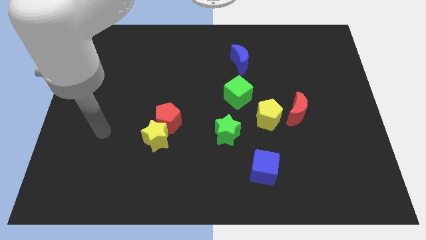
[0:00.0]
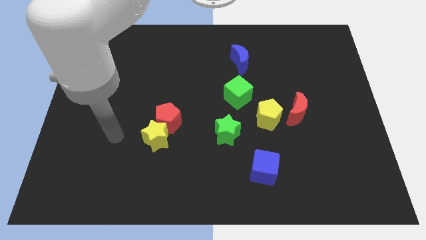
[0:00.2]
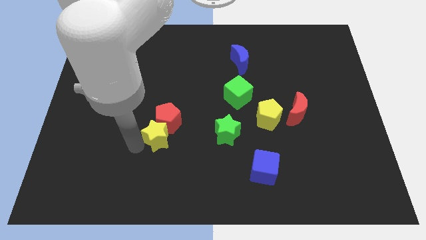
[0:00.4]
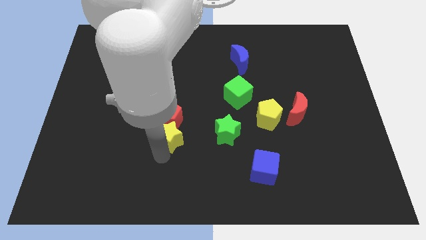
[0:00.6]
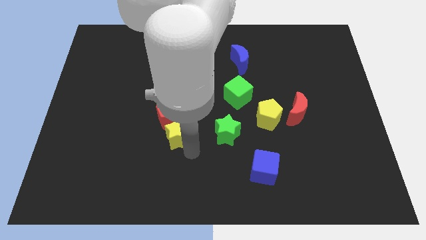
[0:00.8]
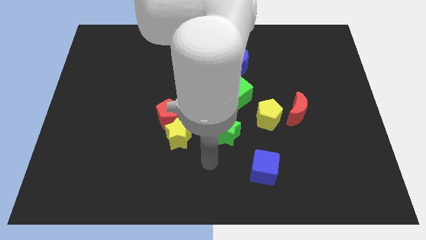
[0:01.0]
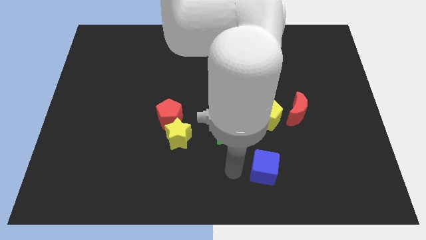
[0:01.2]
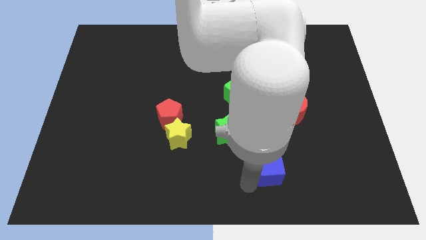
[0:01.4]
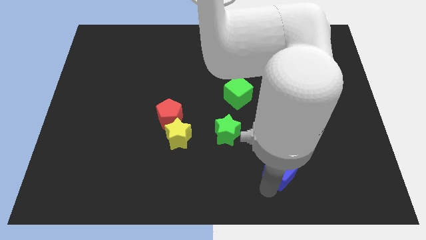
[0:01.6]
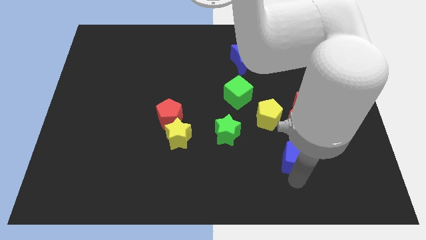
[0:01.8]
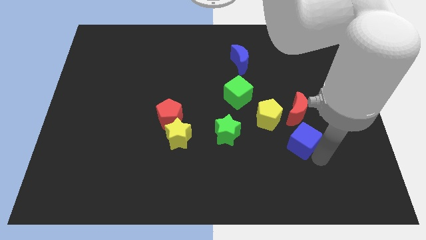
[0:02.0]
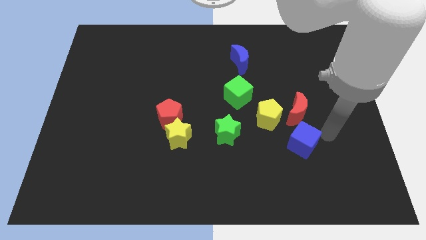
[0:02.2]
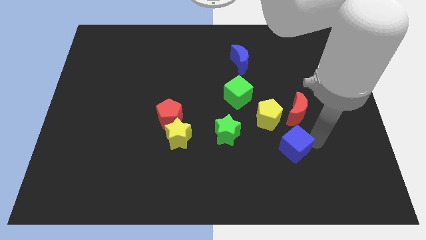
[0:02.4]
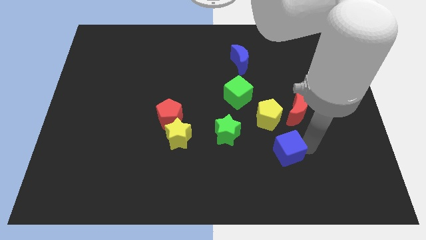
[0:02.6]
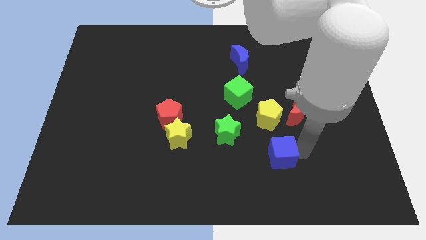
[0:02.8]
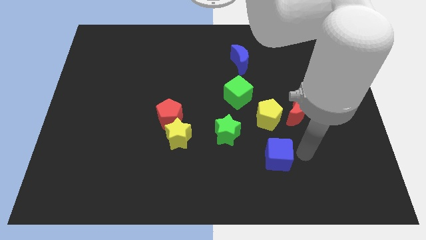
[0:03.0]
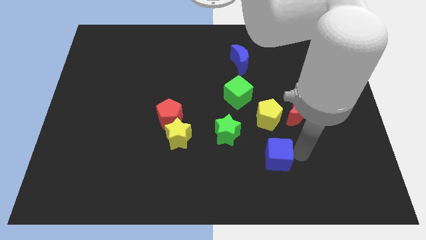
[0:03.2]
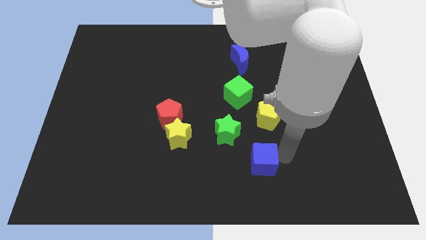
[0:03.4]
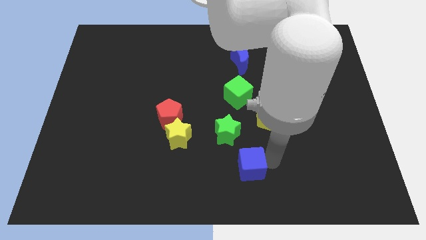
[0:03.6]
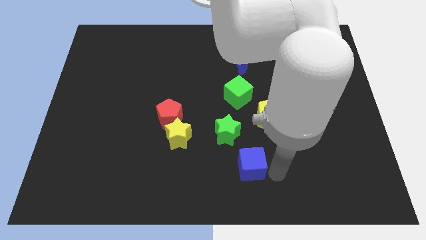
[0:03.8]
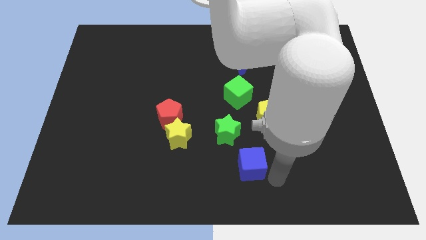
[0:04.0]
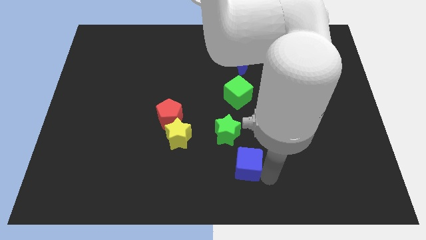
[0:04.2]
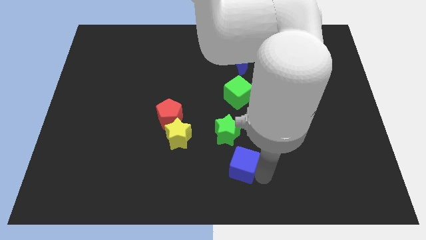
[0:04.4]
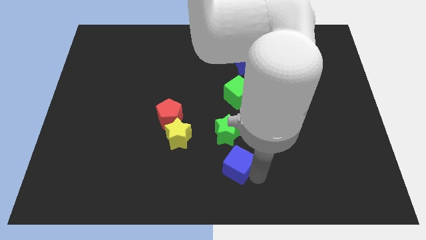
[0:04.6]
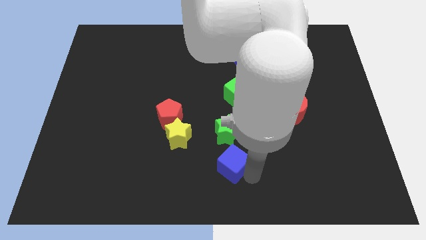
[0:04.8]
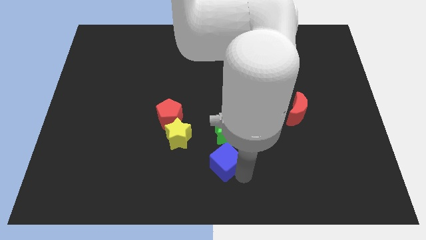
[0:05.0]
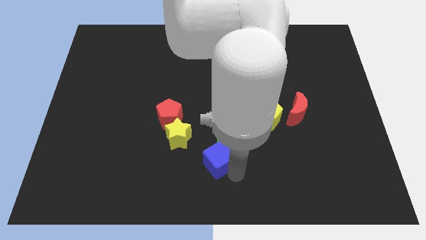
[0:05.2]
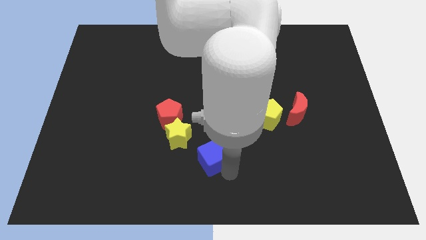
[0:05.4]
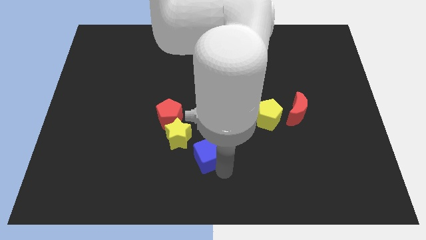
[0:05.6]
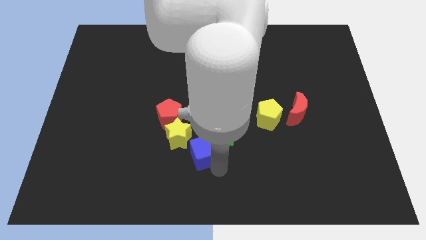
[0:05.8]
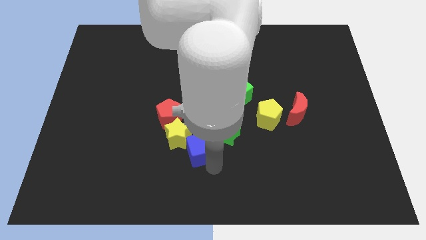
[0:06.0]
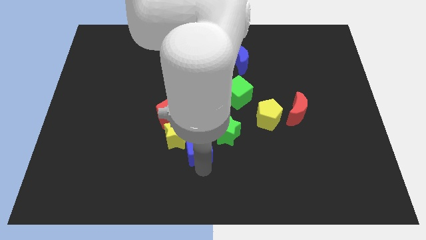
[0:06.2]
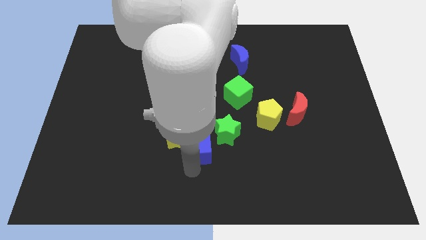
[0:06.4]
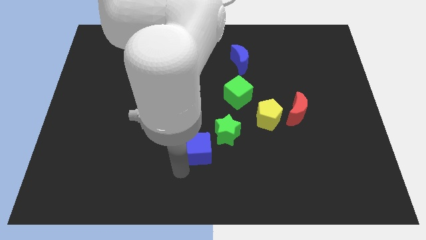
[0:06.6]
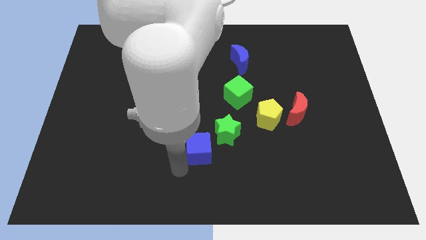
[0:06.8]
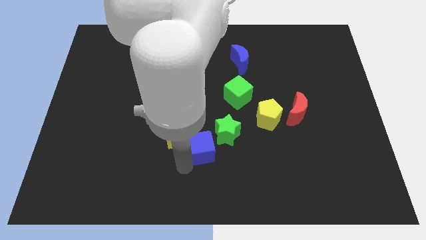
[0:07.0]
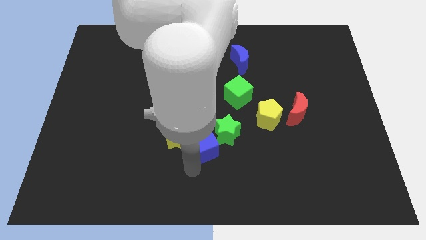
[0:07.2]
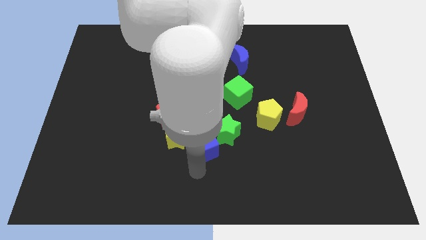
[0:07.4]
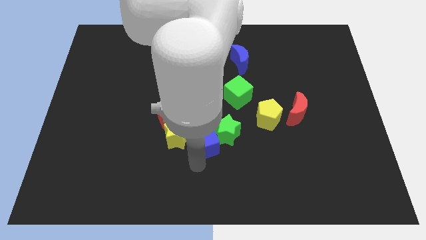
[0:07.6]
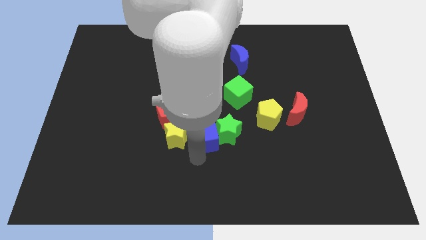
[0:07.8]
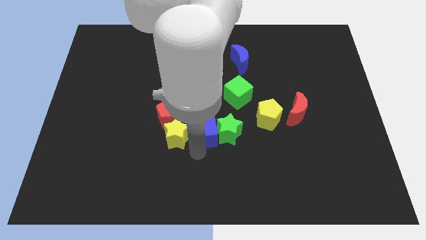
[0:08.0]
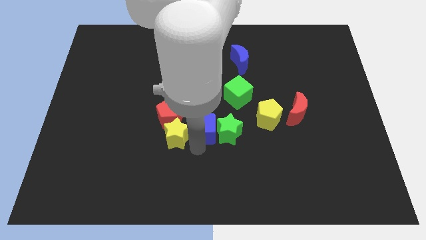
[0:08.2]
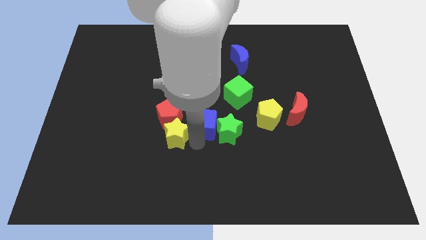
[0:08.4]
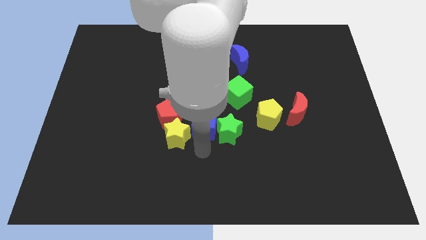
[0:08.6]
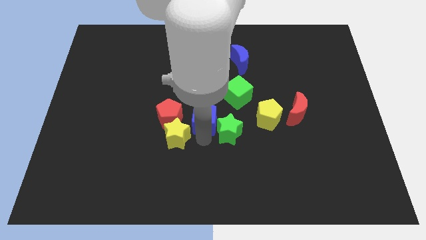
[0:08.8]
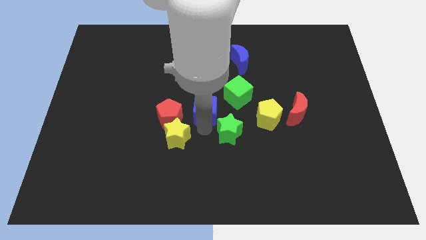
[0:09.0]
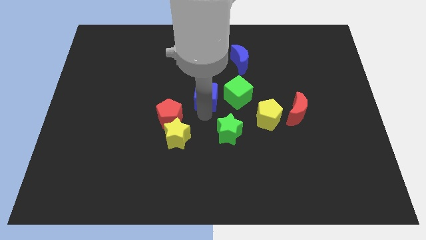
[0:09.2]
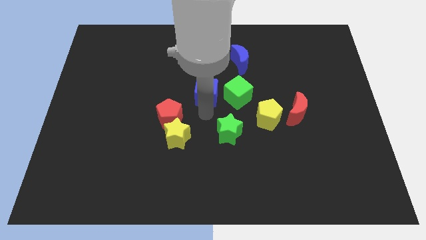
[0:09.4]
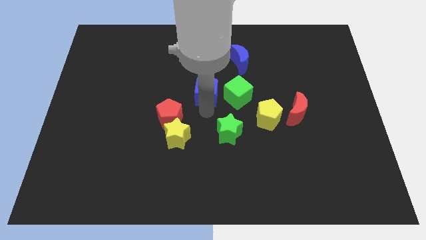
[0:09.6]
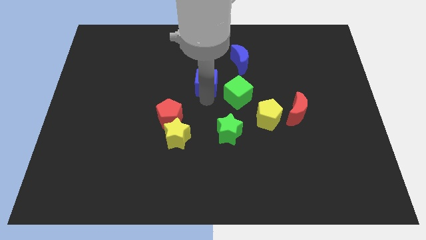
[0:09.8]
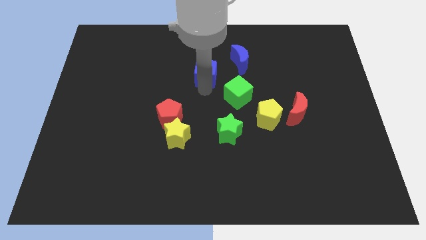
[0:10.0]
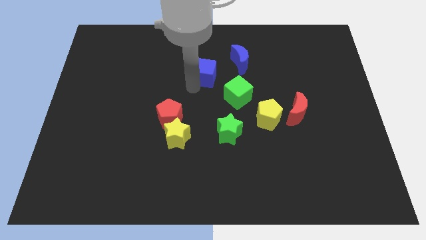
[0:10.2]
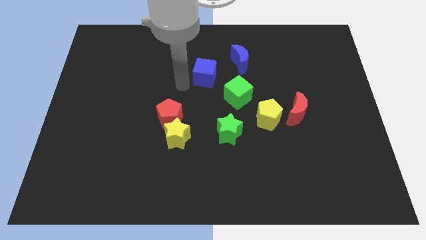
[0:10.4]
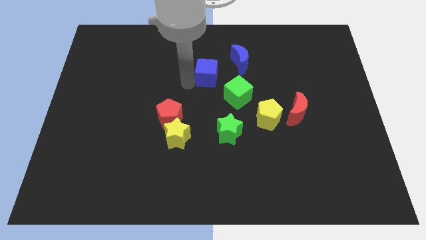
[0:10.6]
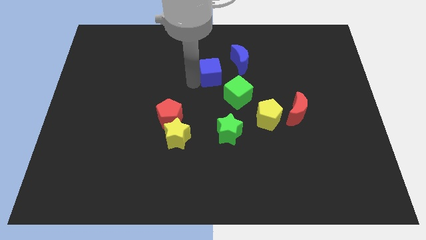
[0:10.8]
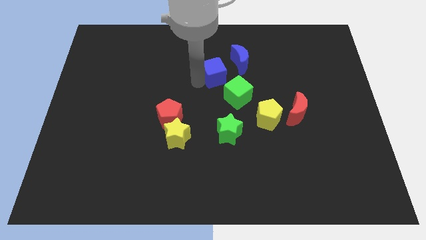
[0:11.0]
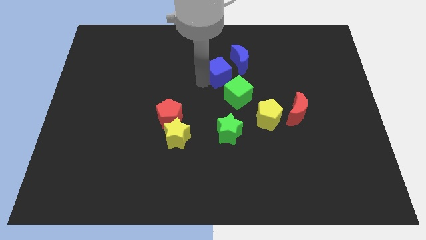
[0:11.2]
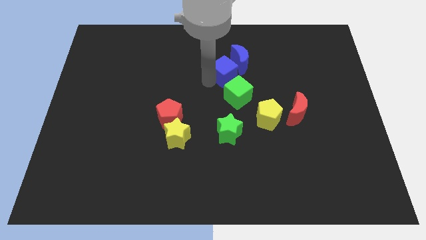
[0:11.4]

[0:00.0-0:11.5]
slide the blue cube close to the blue moon

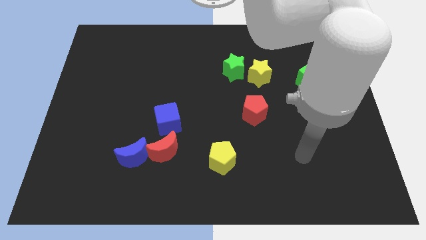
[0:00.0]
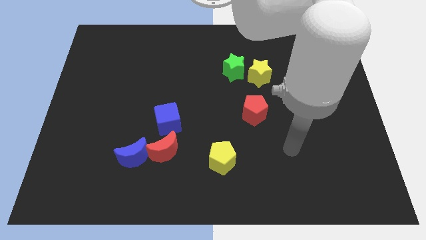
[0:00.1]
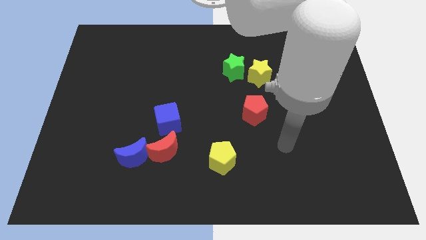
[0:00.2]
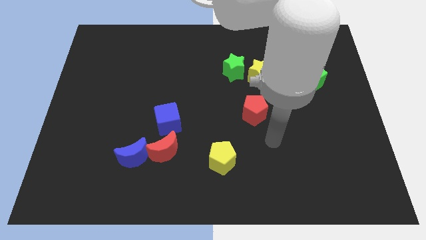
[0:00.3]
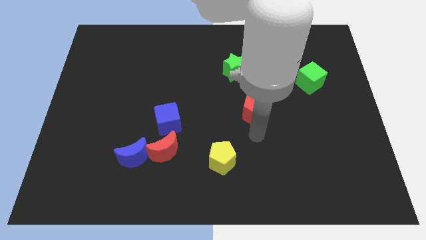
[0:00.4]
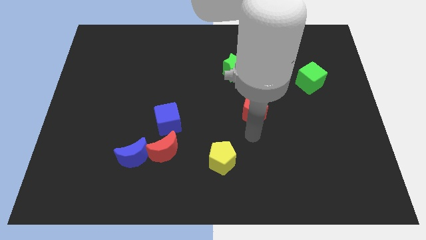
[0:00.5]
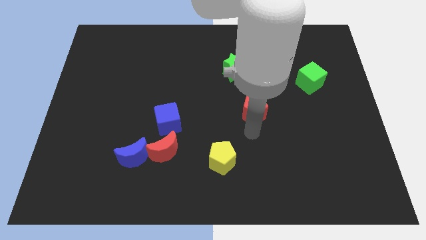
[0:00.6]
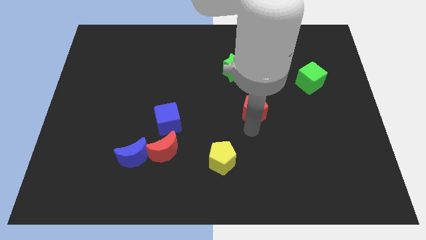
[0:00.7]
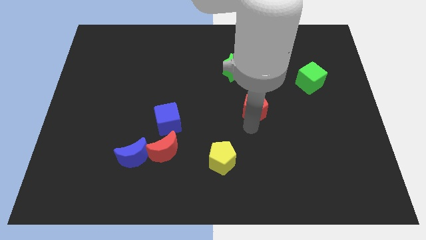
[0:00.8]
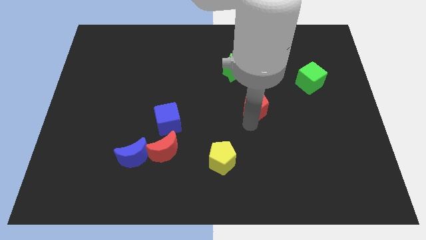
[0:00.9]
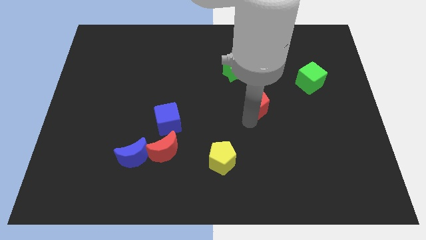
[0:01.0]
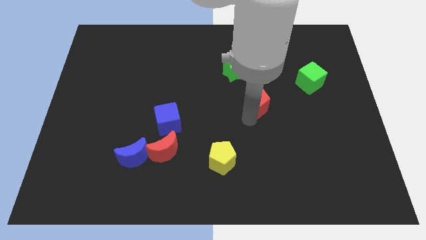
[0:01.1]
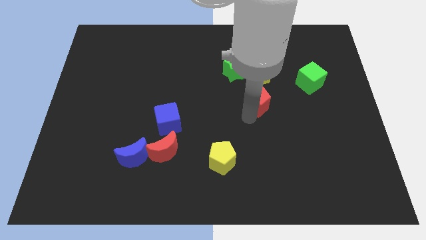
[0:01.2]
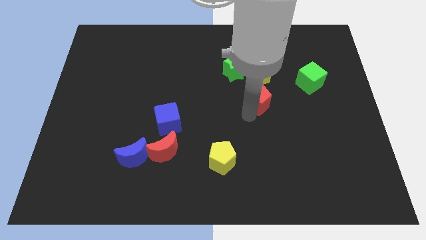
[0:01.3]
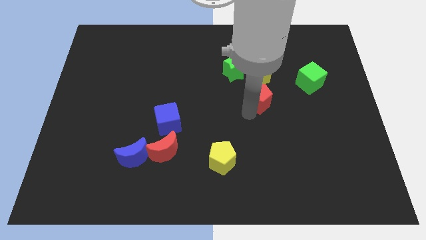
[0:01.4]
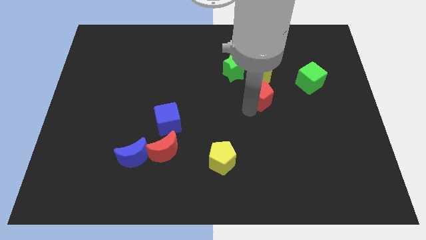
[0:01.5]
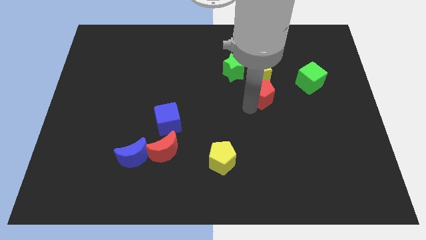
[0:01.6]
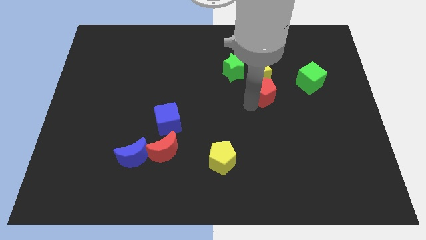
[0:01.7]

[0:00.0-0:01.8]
put the red pentagon towards the yellow star
